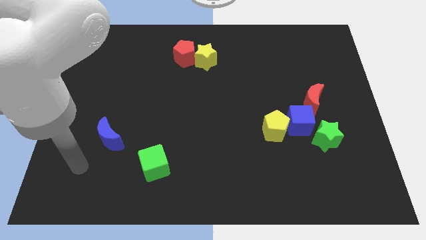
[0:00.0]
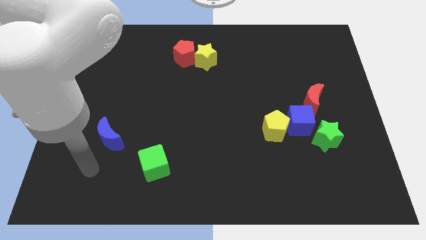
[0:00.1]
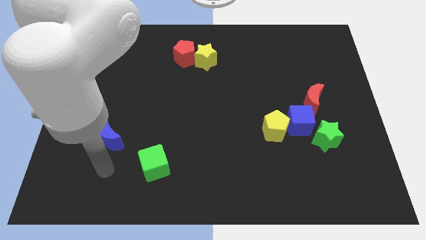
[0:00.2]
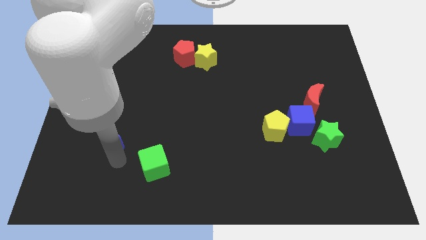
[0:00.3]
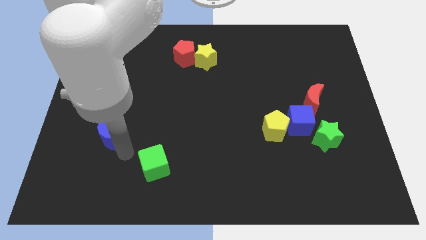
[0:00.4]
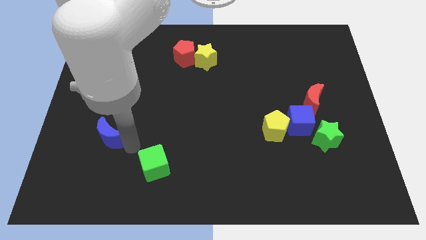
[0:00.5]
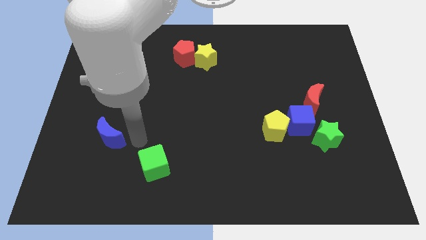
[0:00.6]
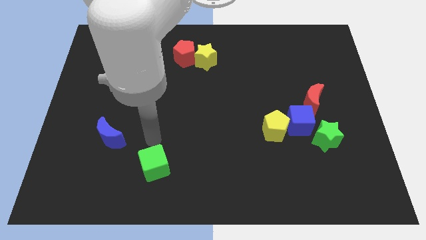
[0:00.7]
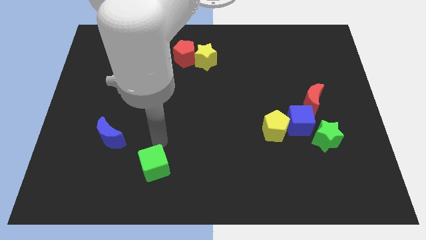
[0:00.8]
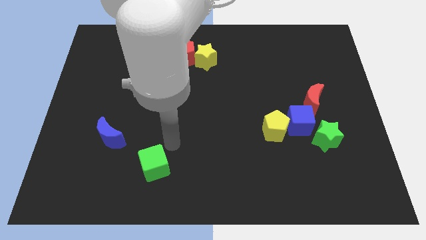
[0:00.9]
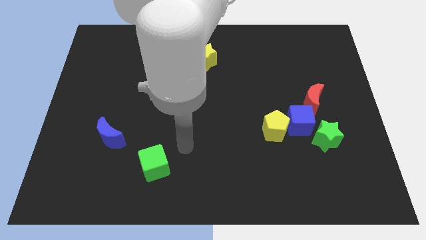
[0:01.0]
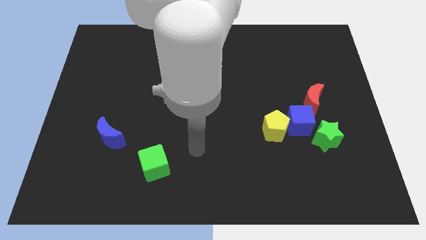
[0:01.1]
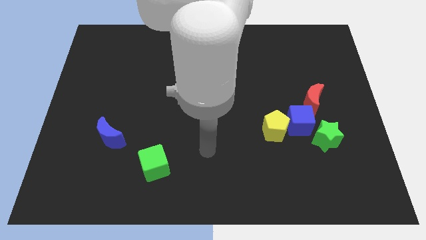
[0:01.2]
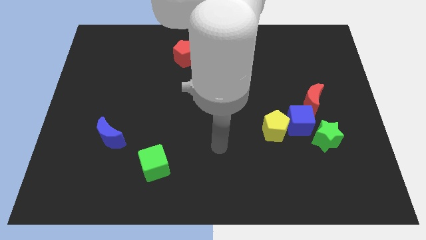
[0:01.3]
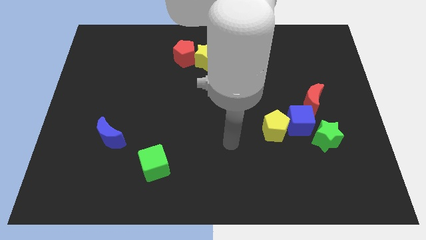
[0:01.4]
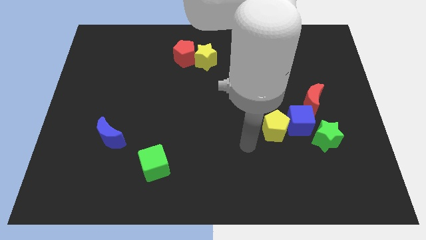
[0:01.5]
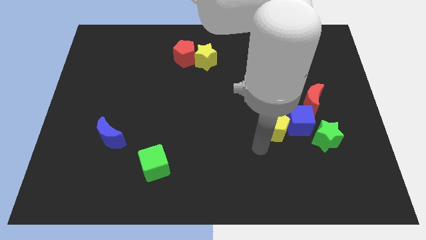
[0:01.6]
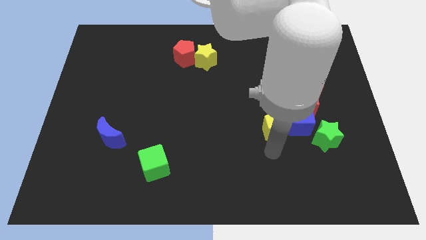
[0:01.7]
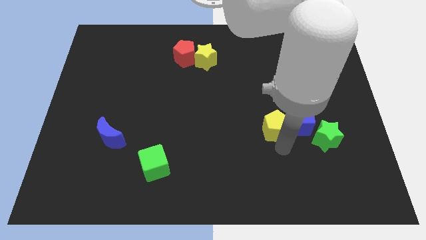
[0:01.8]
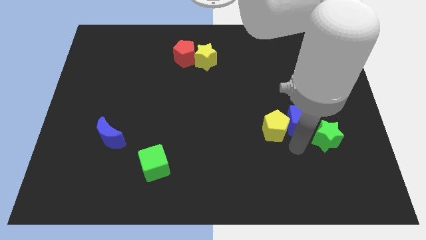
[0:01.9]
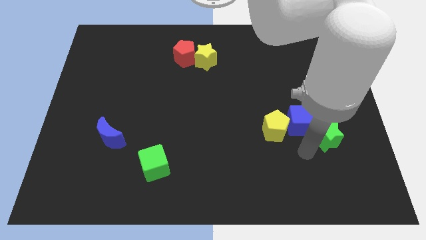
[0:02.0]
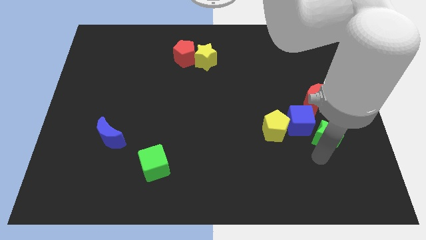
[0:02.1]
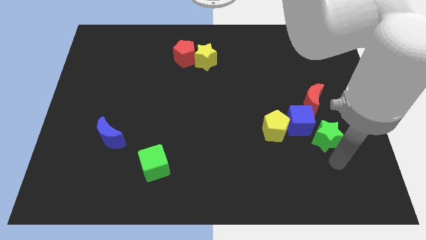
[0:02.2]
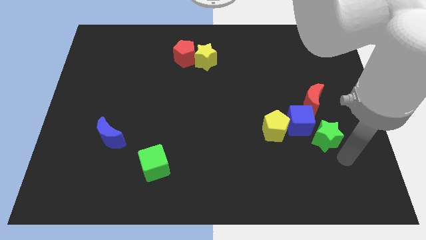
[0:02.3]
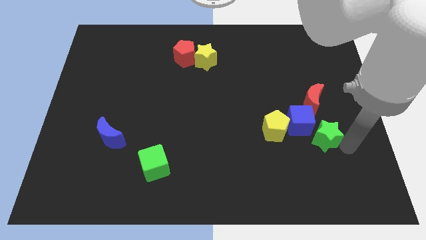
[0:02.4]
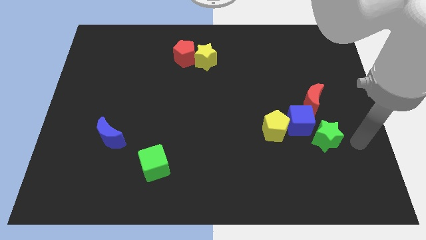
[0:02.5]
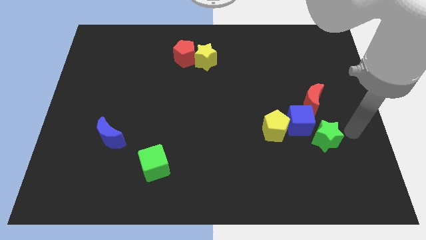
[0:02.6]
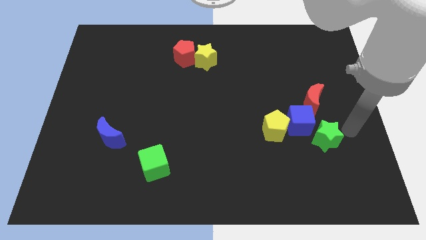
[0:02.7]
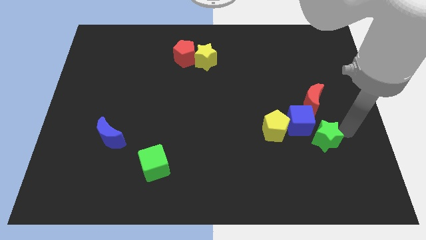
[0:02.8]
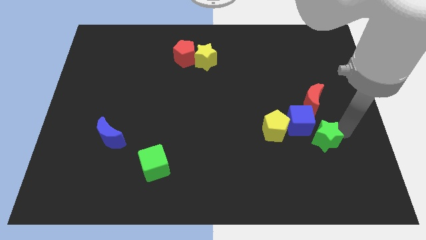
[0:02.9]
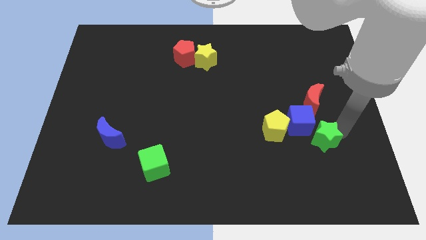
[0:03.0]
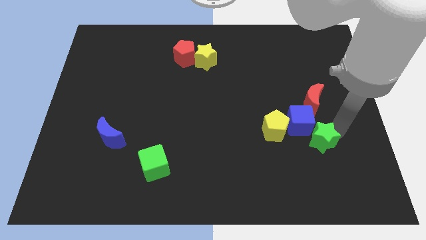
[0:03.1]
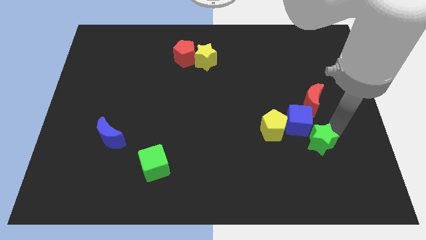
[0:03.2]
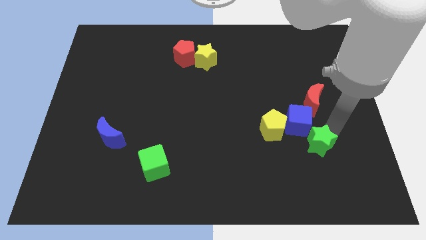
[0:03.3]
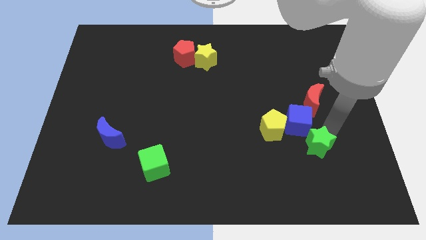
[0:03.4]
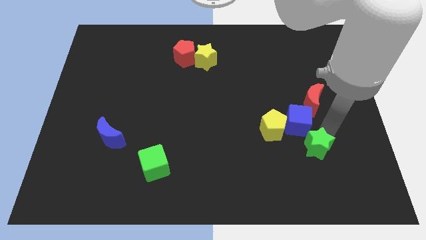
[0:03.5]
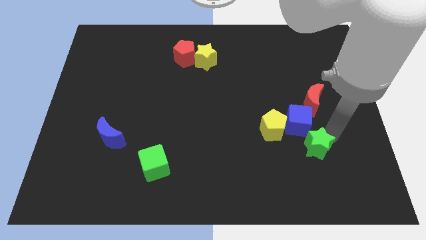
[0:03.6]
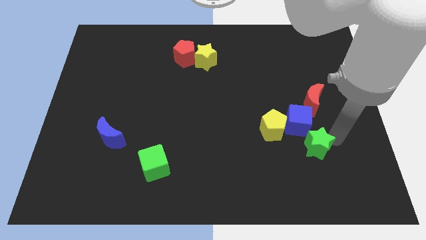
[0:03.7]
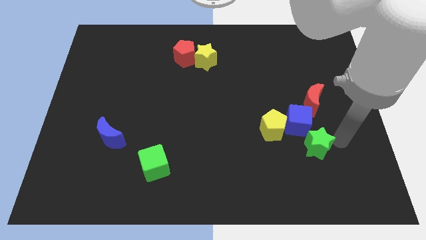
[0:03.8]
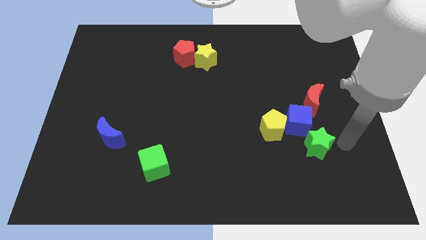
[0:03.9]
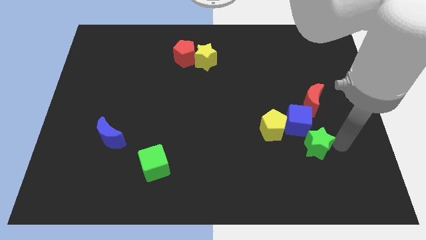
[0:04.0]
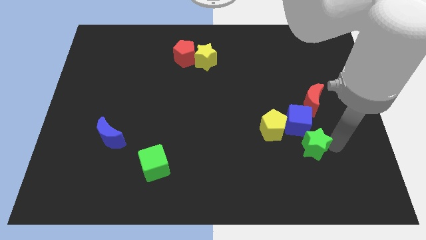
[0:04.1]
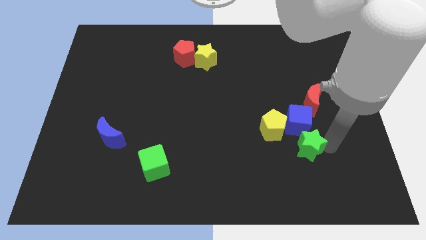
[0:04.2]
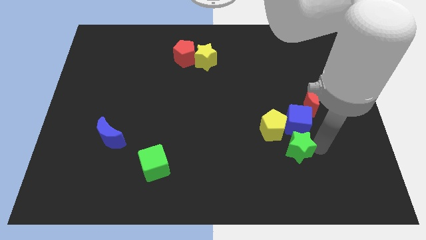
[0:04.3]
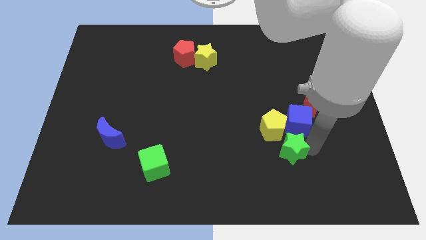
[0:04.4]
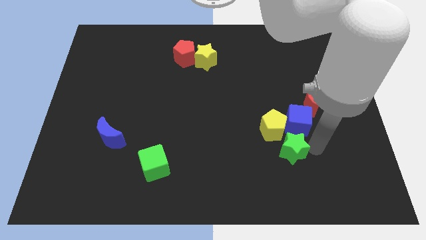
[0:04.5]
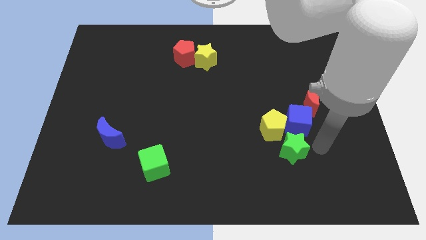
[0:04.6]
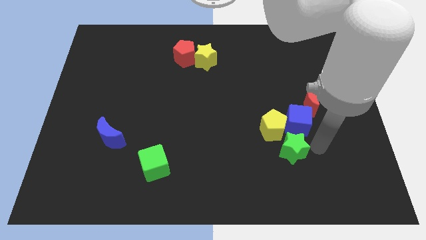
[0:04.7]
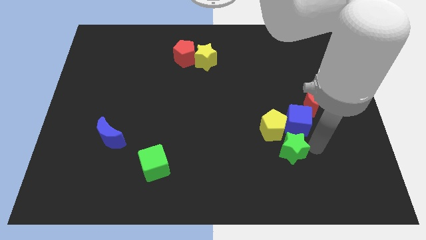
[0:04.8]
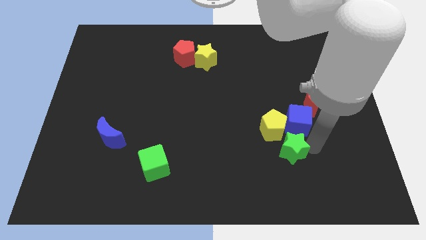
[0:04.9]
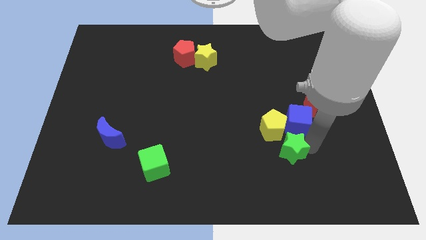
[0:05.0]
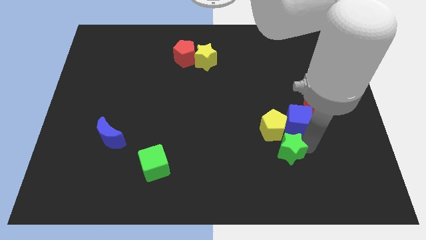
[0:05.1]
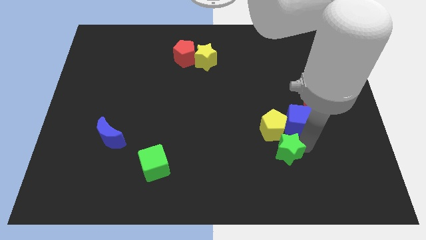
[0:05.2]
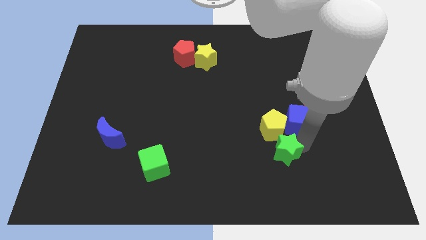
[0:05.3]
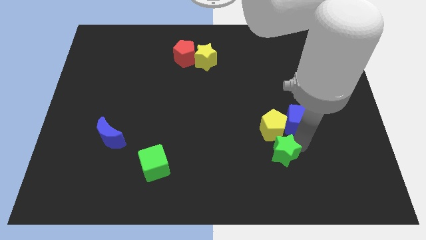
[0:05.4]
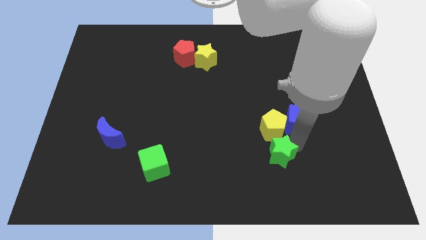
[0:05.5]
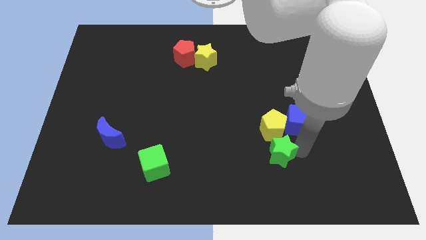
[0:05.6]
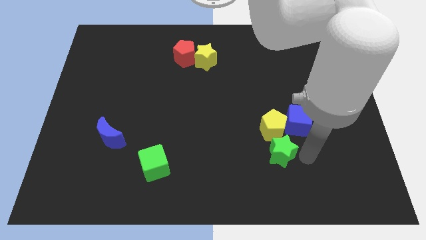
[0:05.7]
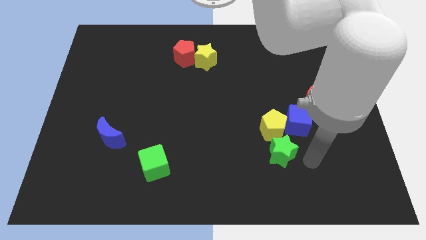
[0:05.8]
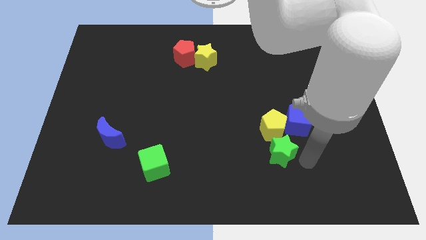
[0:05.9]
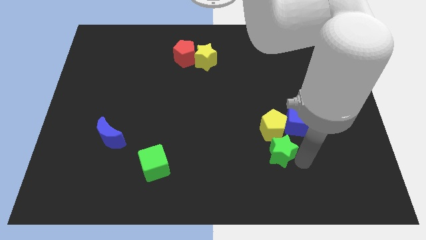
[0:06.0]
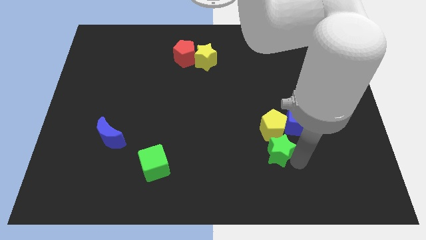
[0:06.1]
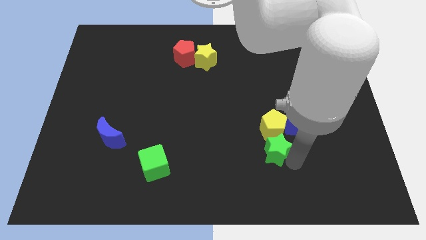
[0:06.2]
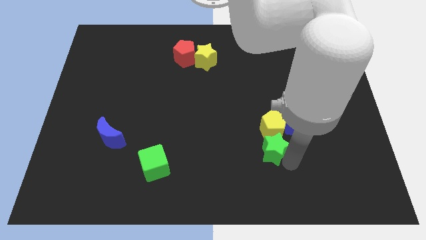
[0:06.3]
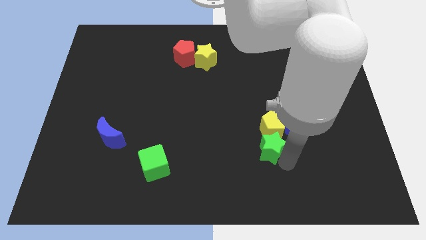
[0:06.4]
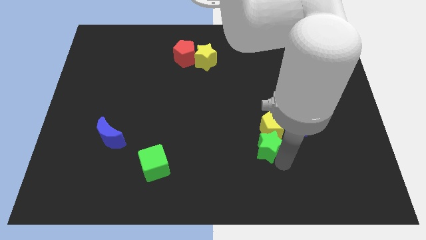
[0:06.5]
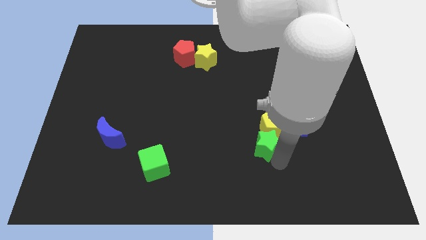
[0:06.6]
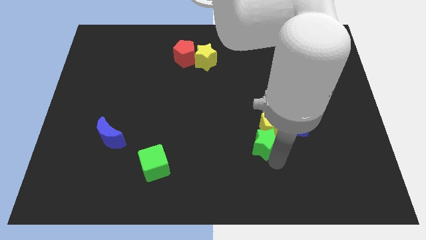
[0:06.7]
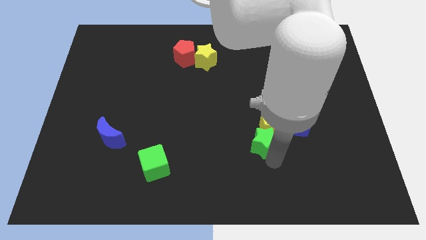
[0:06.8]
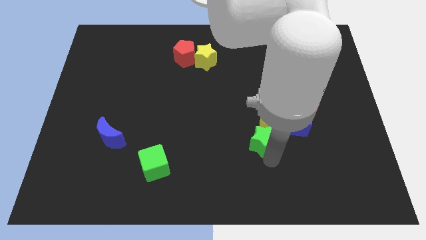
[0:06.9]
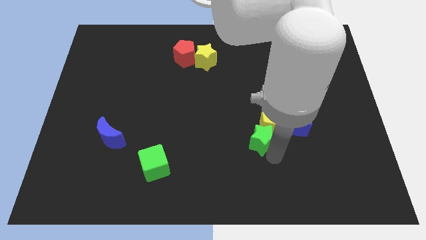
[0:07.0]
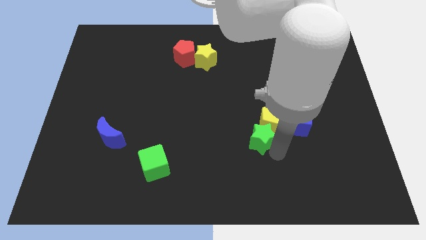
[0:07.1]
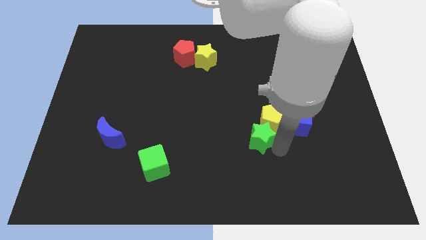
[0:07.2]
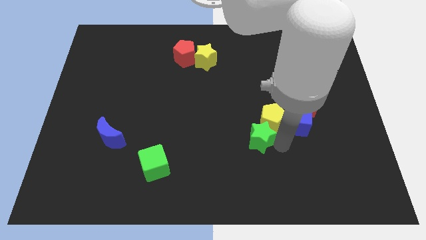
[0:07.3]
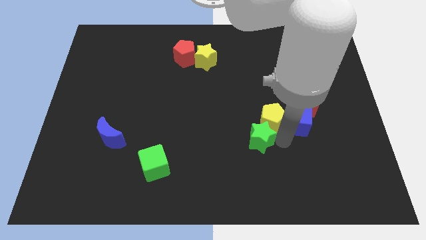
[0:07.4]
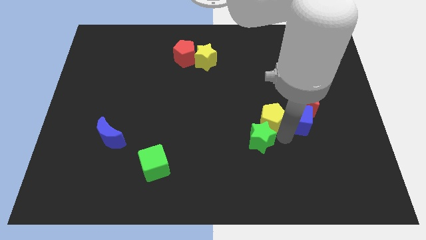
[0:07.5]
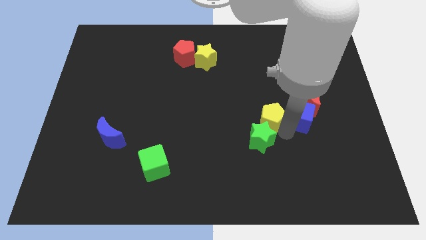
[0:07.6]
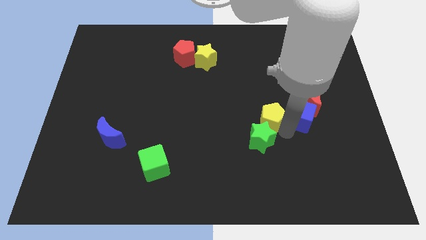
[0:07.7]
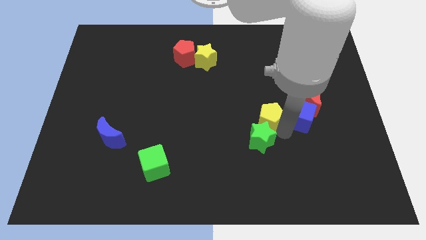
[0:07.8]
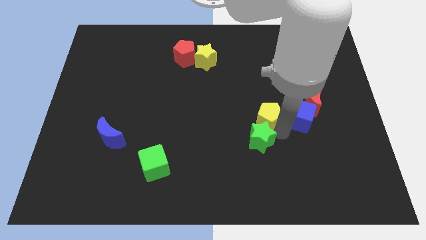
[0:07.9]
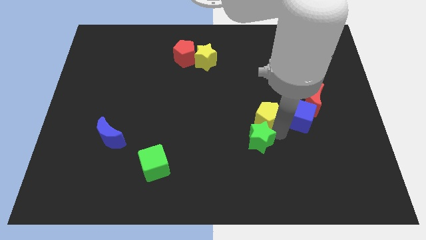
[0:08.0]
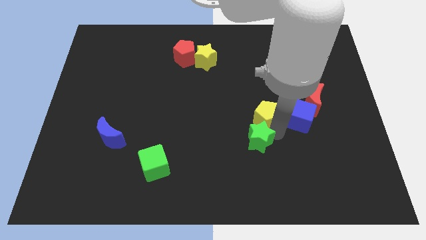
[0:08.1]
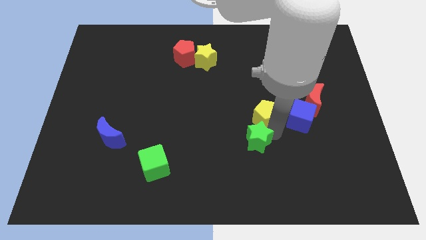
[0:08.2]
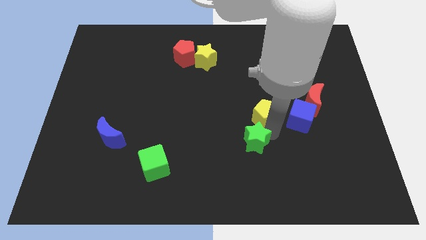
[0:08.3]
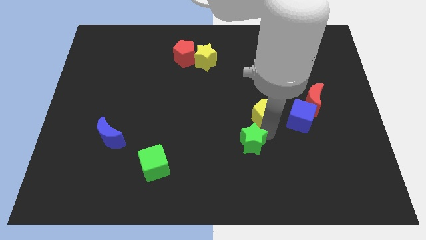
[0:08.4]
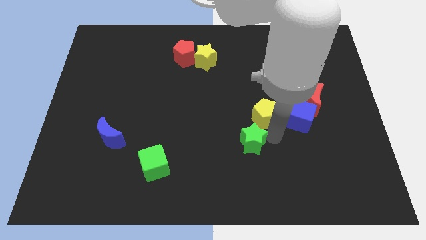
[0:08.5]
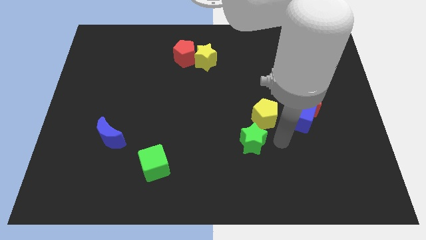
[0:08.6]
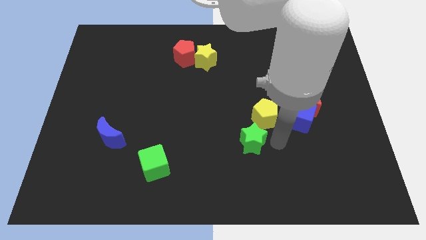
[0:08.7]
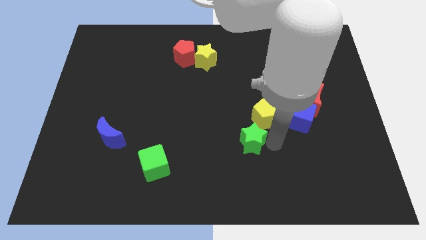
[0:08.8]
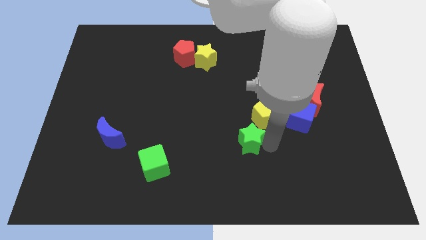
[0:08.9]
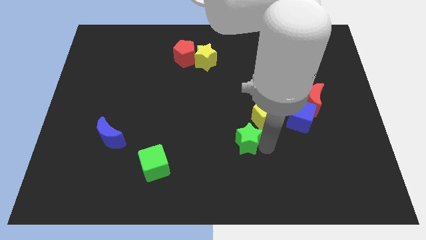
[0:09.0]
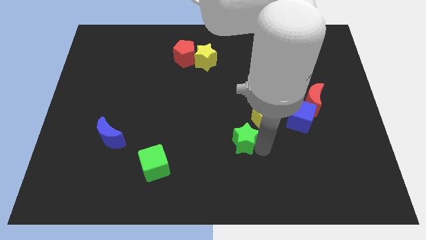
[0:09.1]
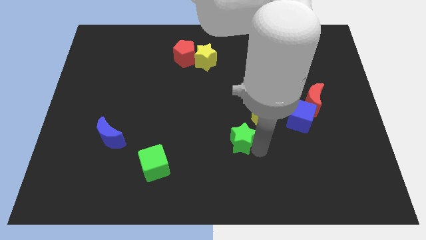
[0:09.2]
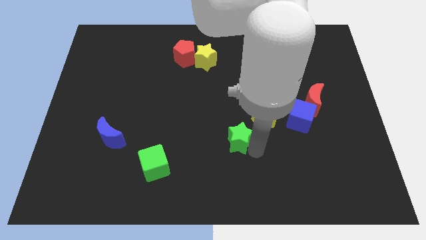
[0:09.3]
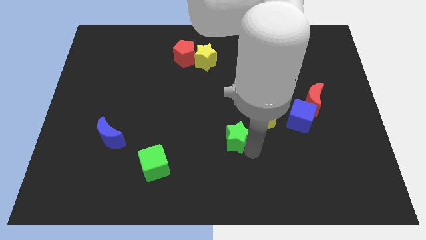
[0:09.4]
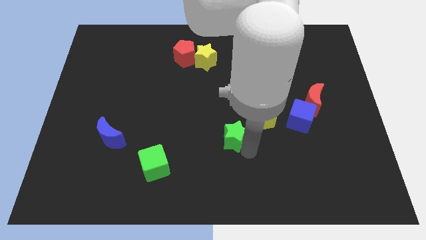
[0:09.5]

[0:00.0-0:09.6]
move the green star to the left
